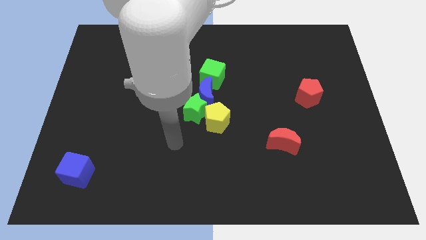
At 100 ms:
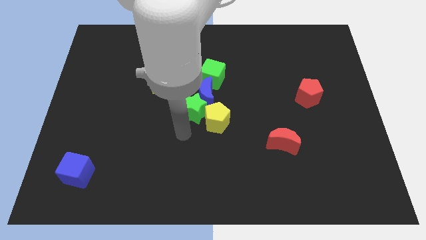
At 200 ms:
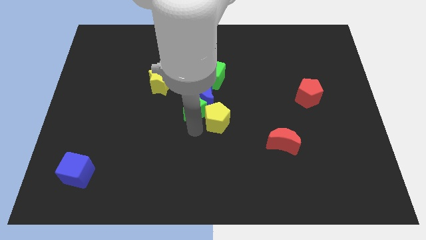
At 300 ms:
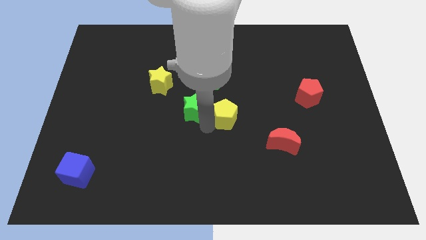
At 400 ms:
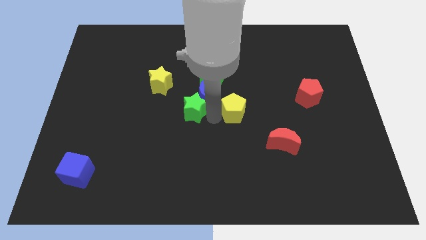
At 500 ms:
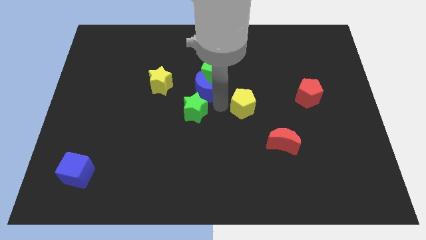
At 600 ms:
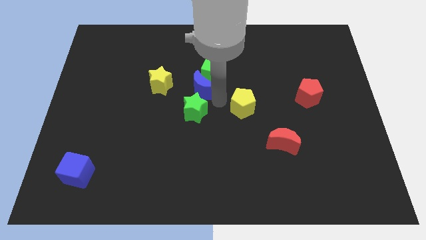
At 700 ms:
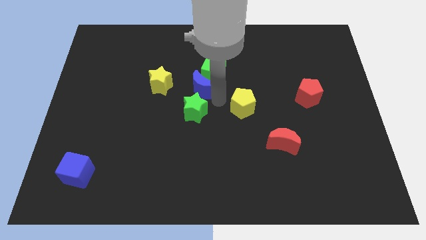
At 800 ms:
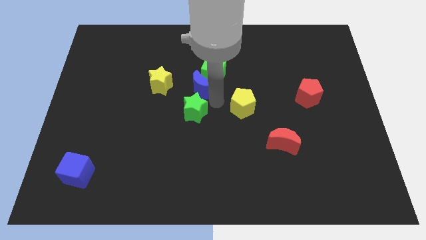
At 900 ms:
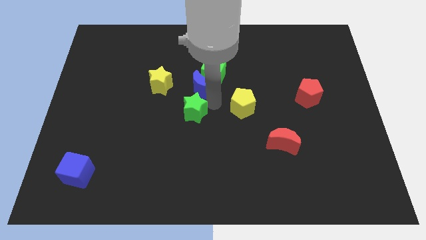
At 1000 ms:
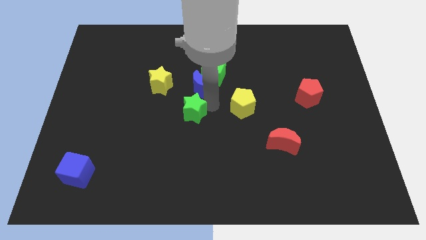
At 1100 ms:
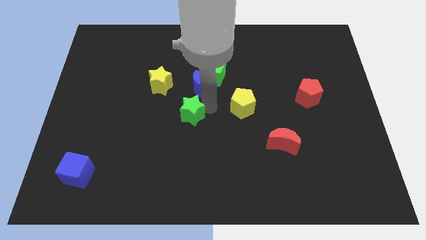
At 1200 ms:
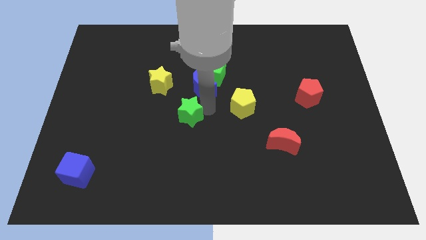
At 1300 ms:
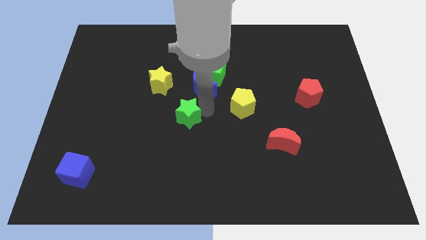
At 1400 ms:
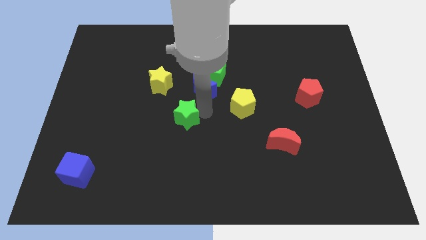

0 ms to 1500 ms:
separate the green star from the blue moon and yellow pentagon

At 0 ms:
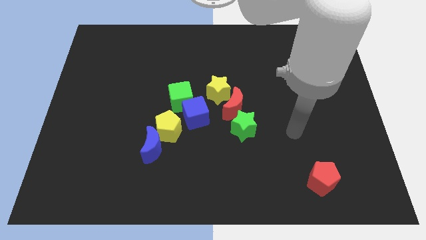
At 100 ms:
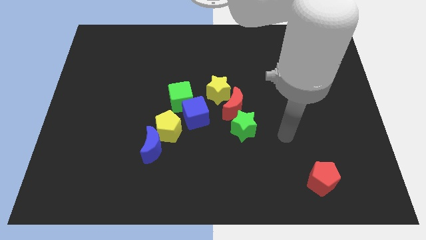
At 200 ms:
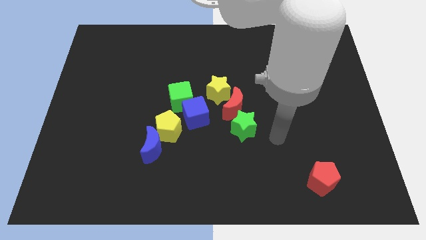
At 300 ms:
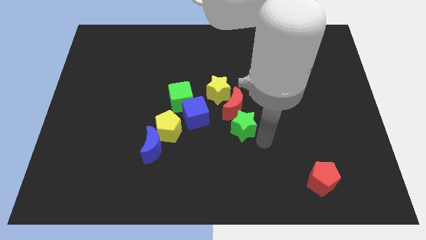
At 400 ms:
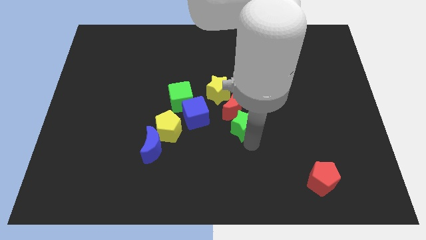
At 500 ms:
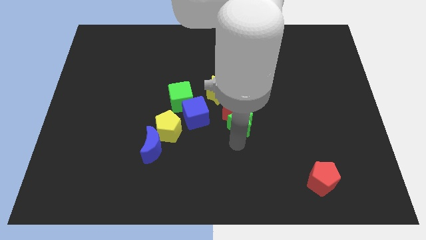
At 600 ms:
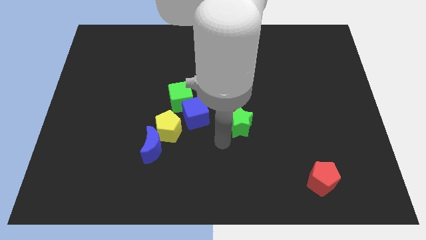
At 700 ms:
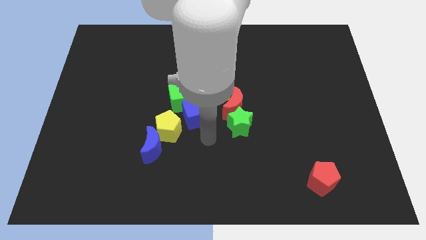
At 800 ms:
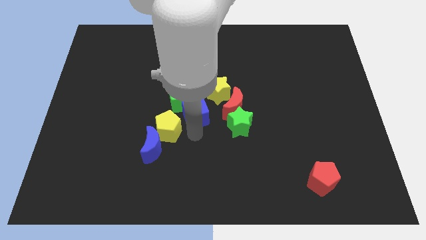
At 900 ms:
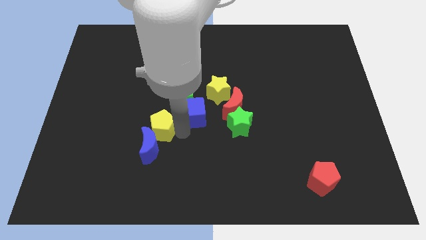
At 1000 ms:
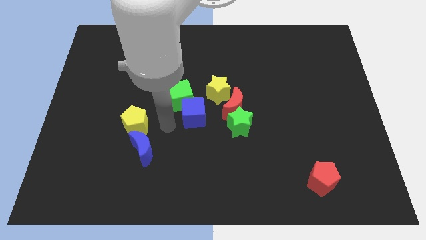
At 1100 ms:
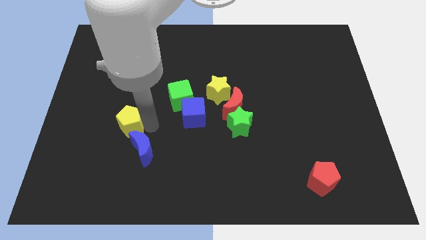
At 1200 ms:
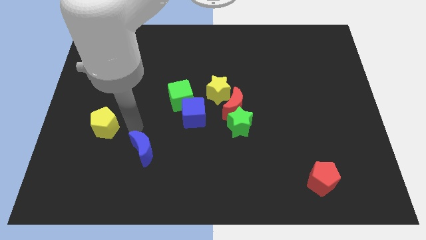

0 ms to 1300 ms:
separate the blue moon from the yellow pentagon

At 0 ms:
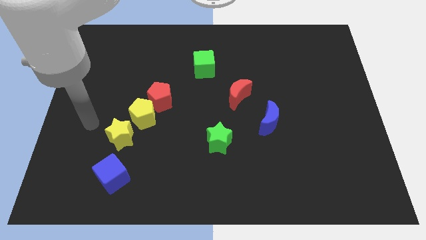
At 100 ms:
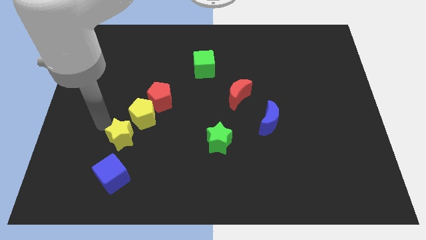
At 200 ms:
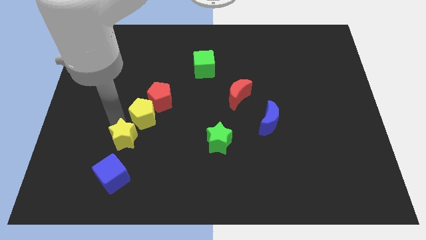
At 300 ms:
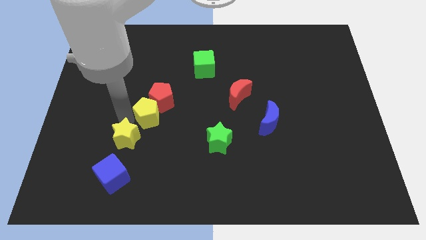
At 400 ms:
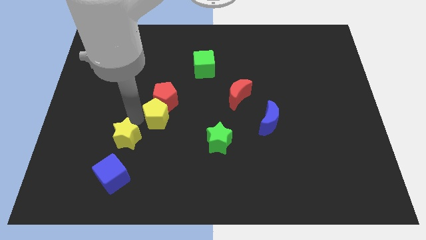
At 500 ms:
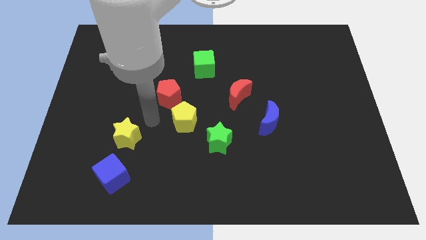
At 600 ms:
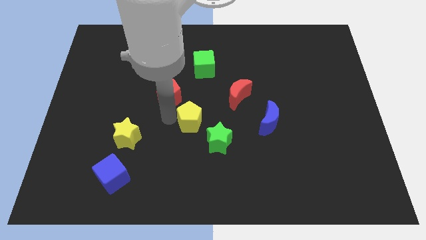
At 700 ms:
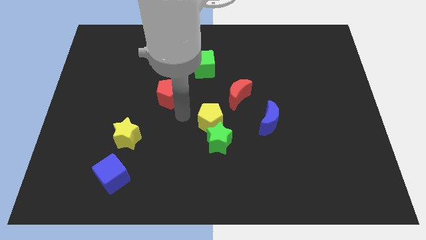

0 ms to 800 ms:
separate the red pentagon from the yellow pentagon

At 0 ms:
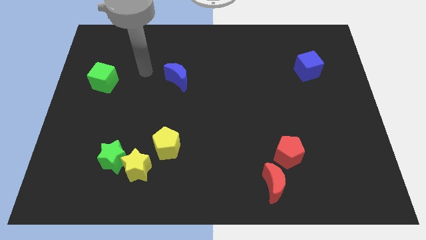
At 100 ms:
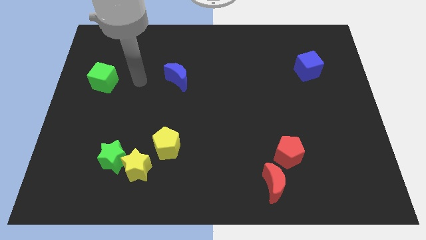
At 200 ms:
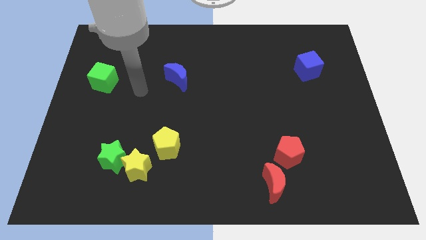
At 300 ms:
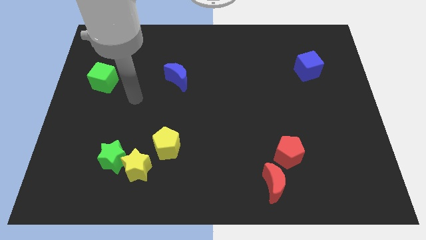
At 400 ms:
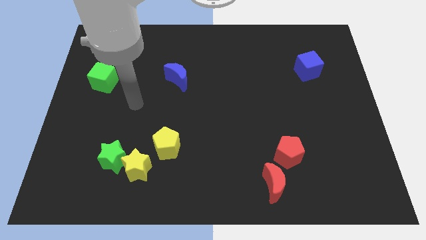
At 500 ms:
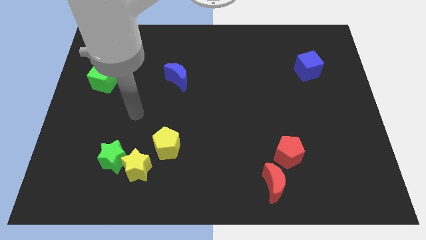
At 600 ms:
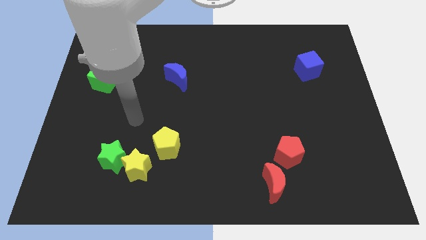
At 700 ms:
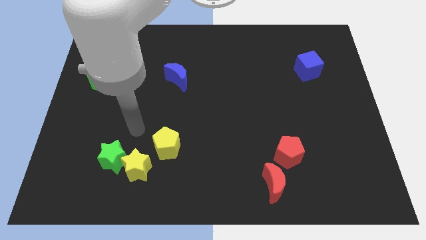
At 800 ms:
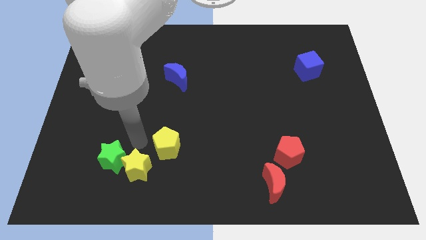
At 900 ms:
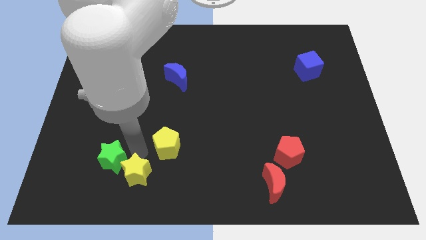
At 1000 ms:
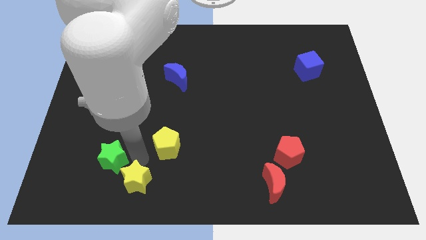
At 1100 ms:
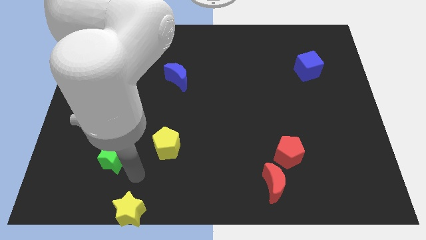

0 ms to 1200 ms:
move the green star away from the yellow star

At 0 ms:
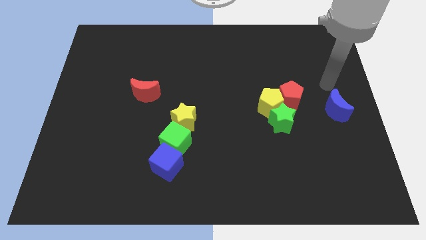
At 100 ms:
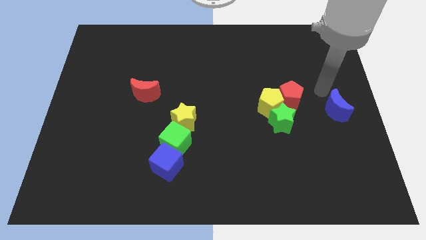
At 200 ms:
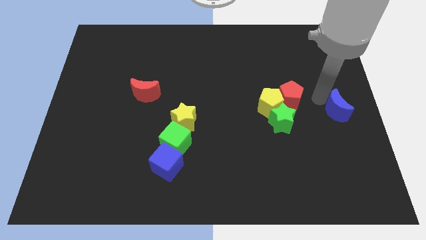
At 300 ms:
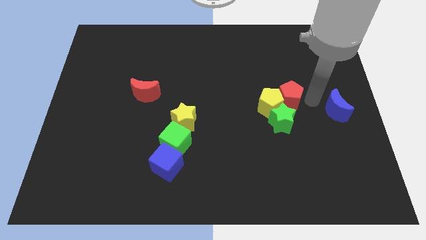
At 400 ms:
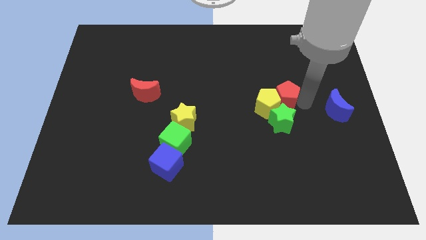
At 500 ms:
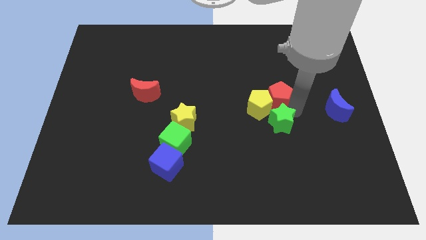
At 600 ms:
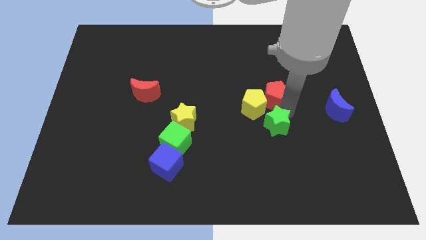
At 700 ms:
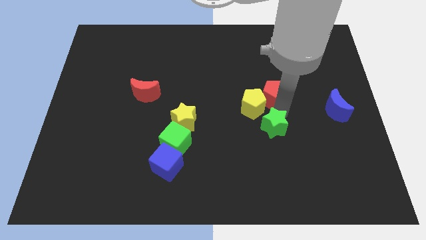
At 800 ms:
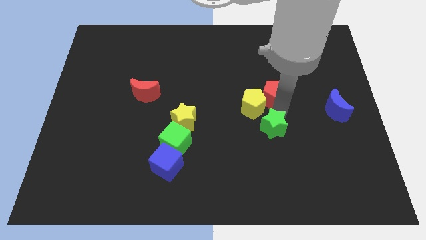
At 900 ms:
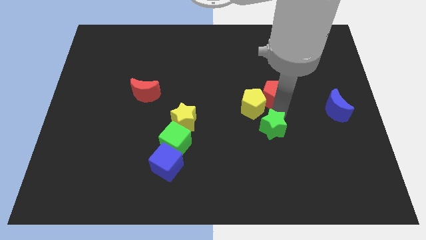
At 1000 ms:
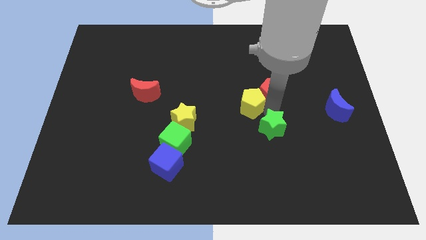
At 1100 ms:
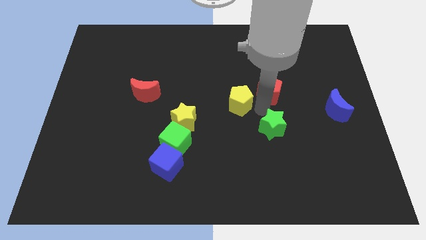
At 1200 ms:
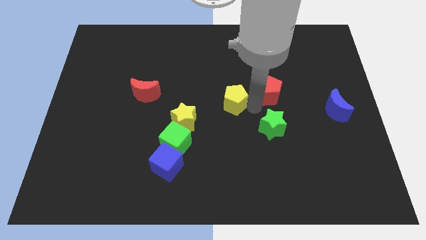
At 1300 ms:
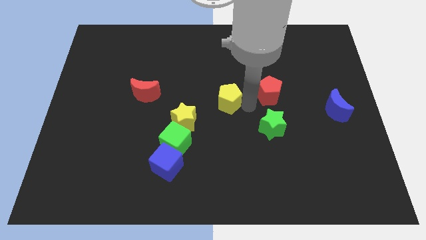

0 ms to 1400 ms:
pull the yellow pentagon apart from the red pentagon and green star

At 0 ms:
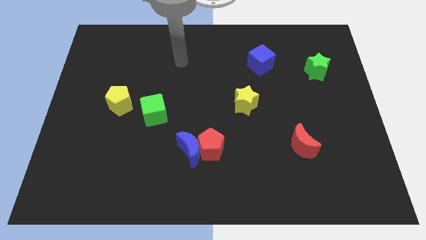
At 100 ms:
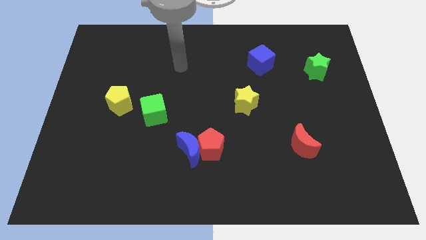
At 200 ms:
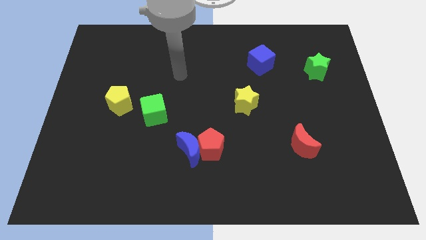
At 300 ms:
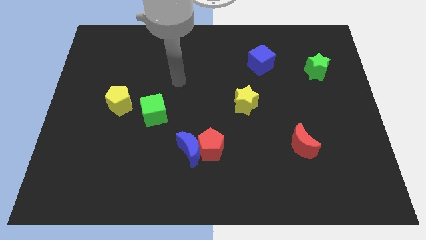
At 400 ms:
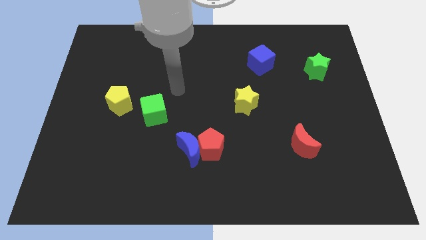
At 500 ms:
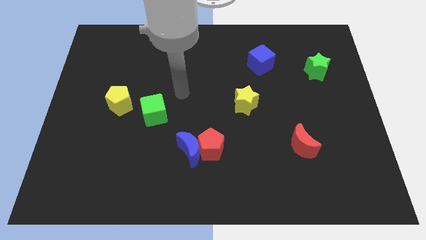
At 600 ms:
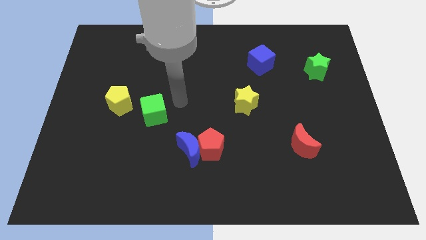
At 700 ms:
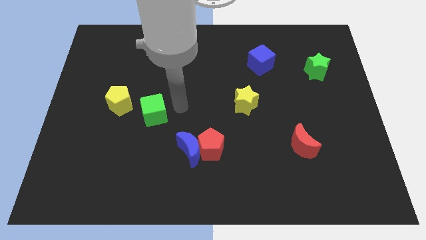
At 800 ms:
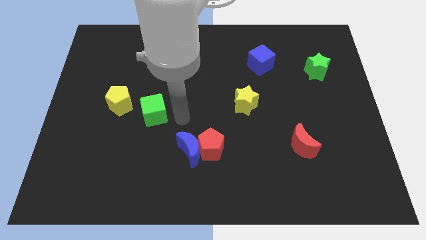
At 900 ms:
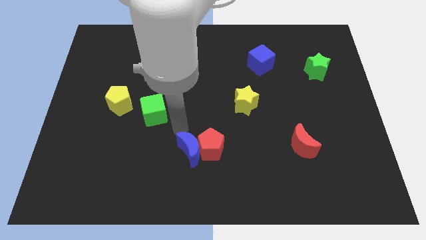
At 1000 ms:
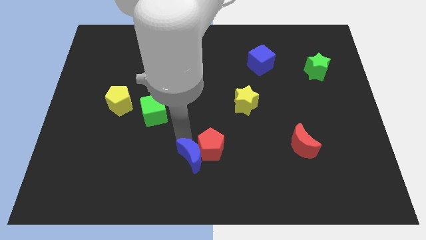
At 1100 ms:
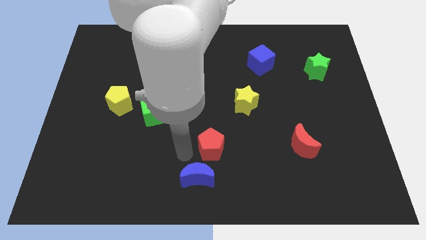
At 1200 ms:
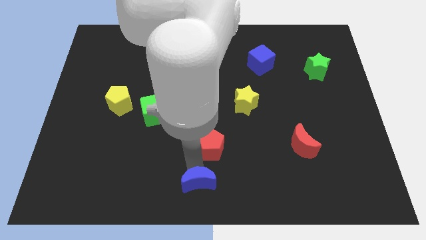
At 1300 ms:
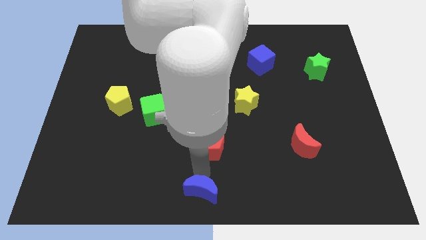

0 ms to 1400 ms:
move the red pentagon away from the blue moon

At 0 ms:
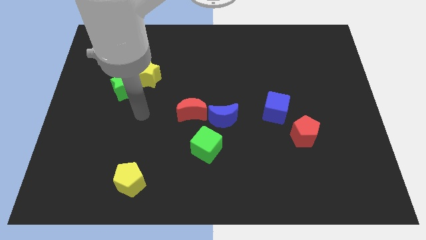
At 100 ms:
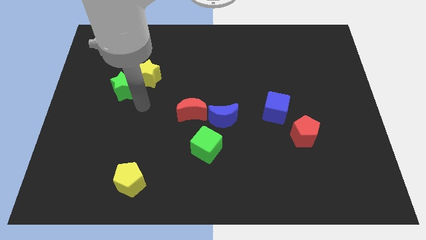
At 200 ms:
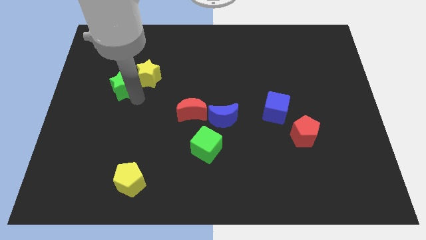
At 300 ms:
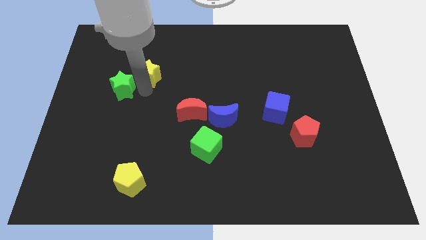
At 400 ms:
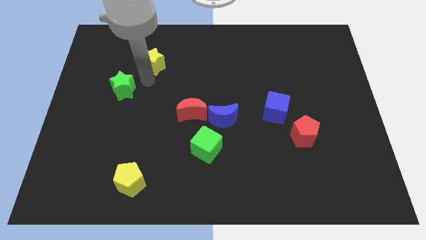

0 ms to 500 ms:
separate the green star from the yellow star

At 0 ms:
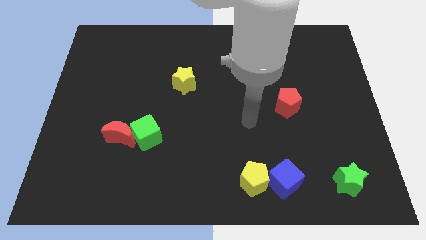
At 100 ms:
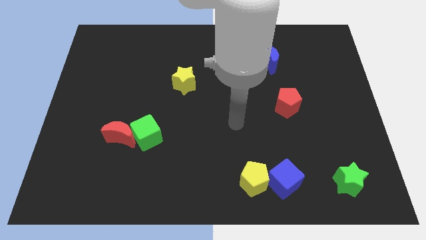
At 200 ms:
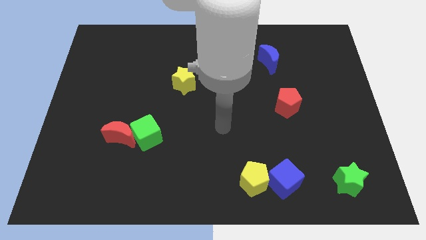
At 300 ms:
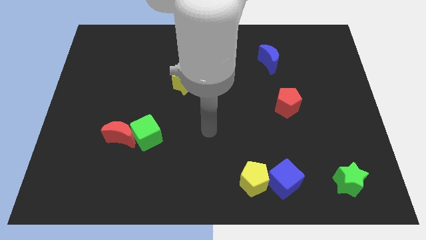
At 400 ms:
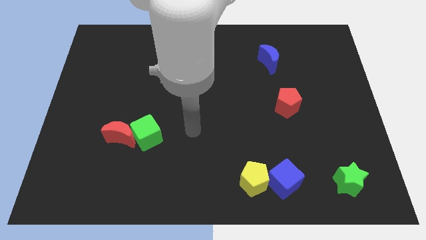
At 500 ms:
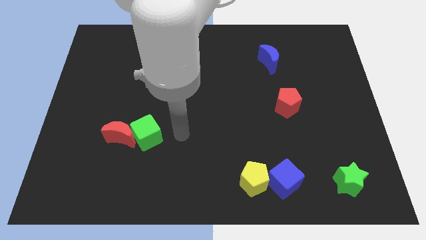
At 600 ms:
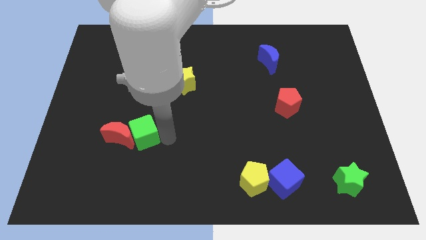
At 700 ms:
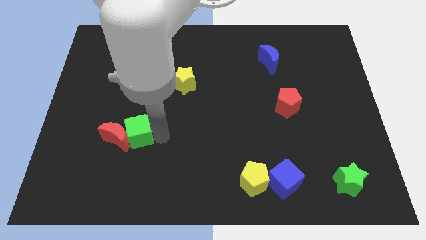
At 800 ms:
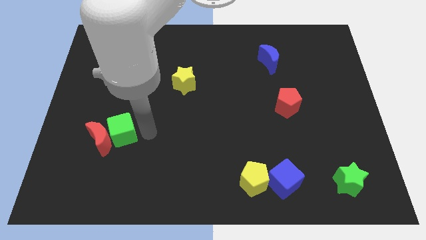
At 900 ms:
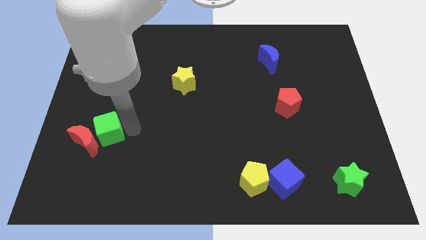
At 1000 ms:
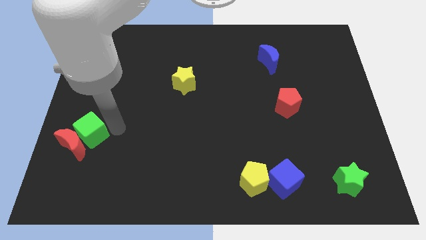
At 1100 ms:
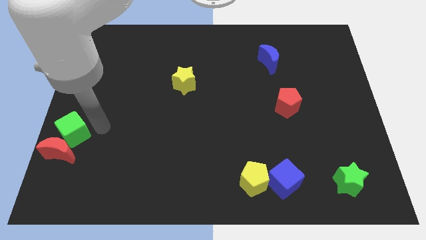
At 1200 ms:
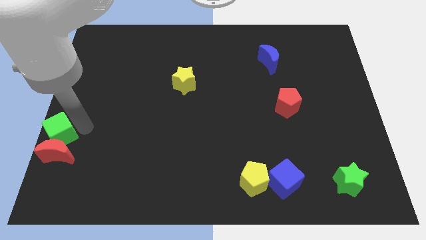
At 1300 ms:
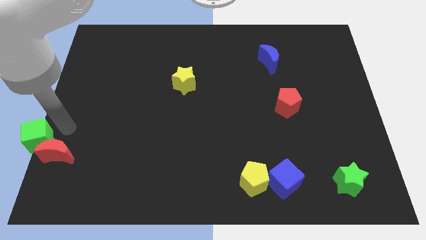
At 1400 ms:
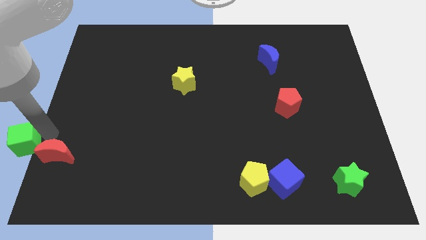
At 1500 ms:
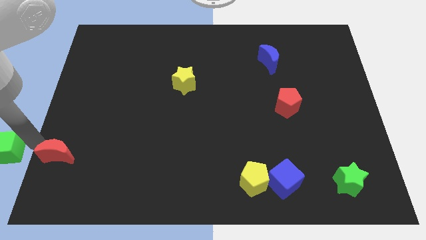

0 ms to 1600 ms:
move the red moon away from the green cube
